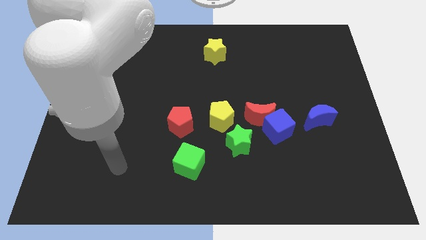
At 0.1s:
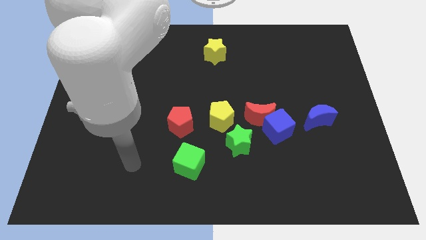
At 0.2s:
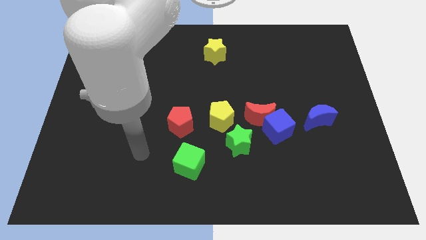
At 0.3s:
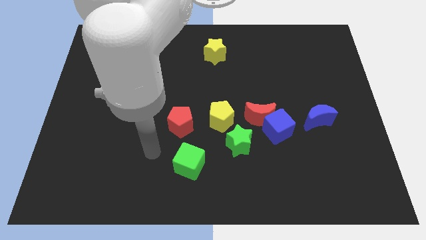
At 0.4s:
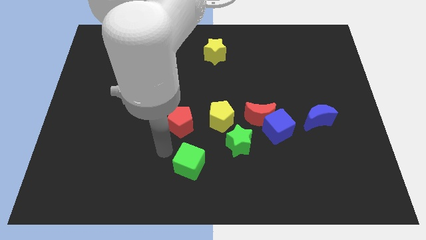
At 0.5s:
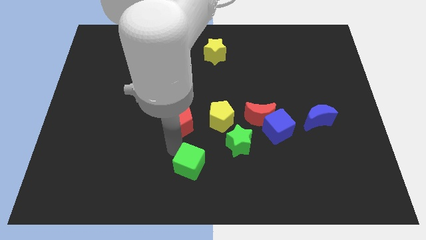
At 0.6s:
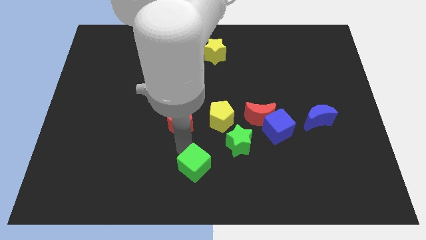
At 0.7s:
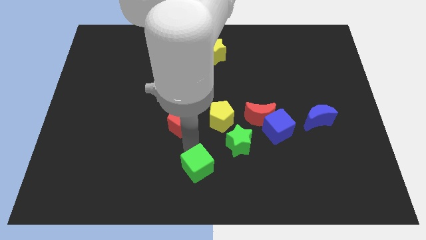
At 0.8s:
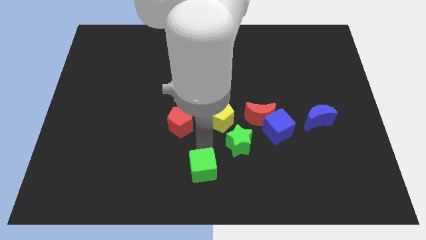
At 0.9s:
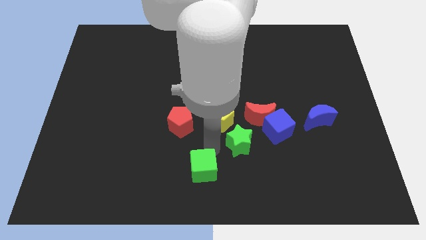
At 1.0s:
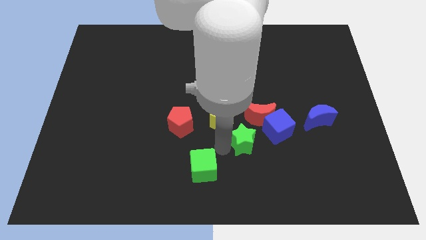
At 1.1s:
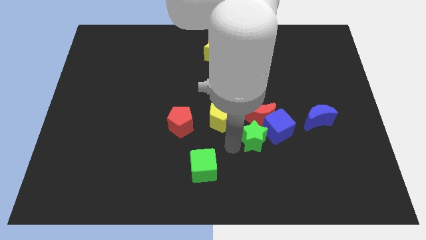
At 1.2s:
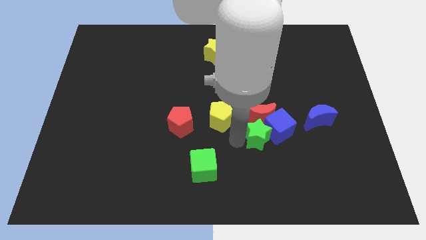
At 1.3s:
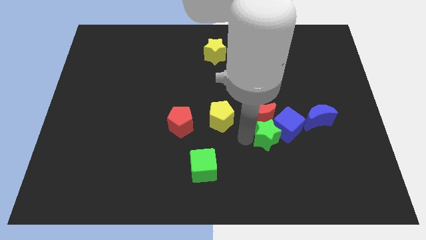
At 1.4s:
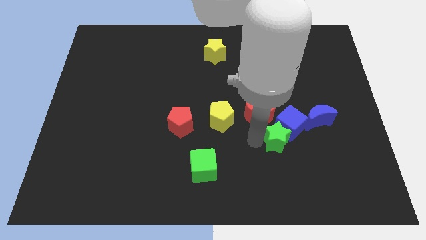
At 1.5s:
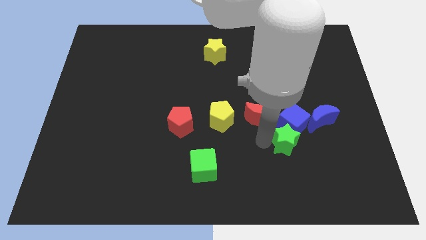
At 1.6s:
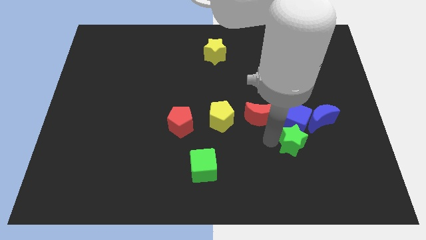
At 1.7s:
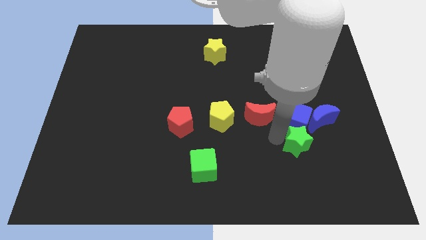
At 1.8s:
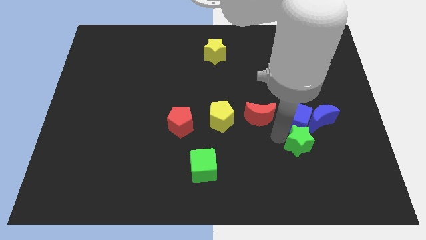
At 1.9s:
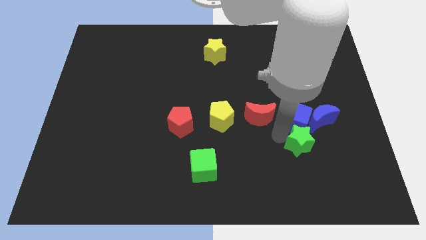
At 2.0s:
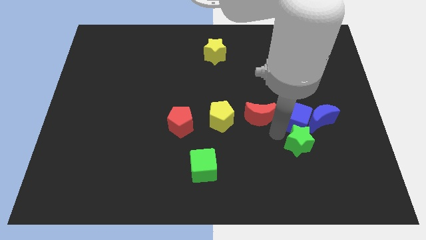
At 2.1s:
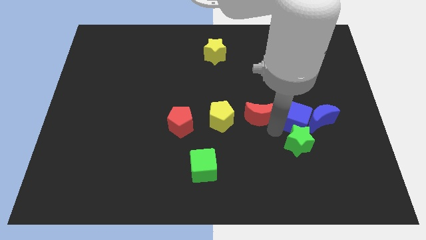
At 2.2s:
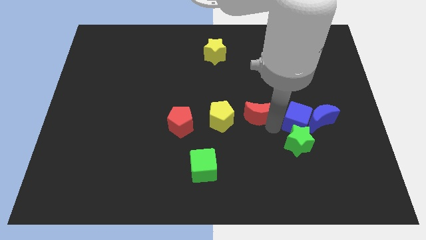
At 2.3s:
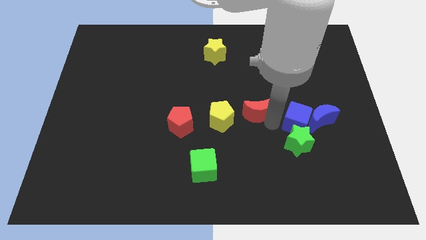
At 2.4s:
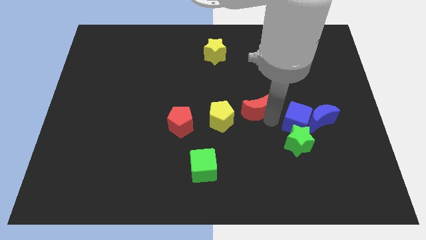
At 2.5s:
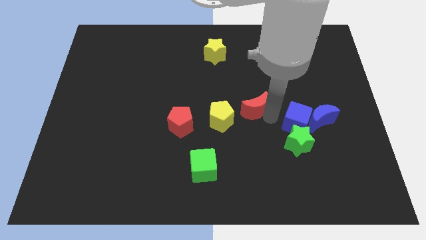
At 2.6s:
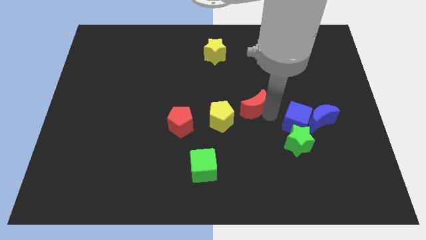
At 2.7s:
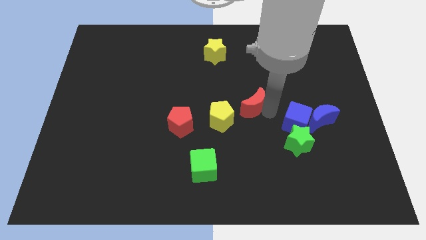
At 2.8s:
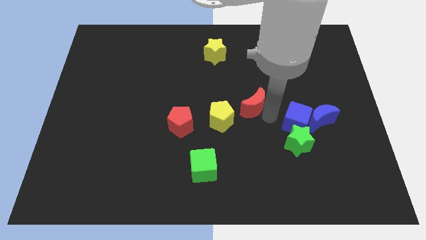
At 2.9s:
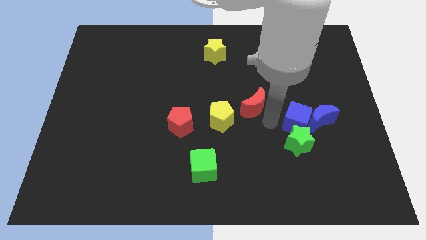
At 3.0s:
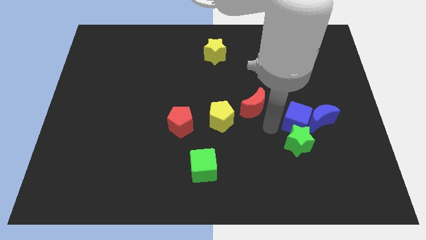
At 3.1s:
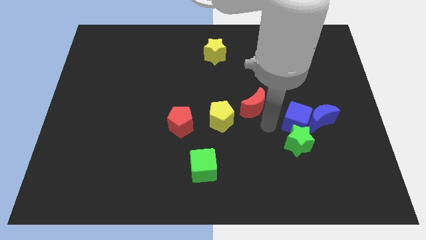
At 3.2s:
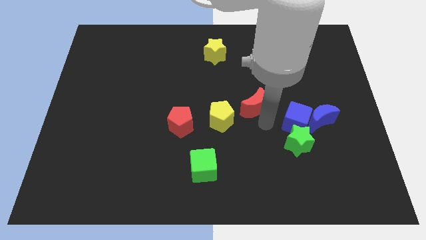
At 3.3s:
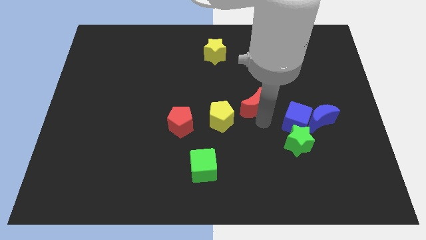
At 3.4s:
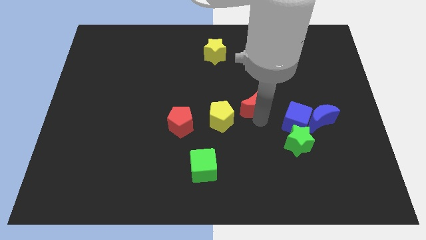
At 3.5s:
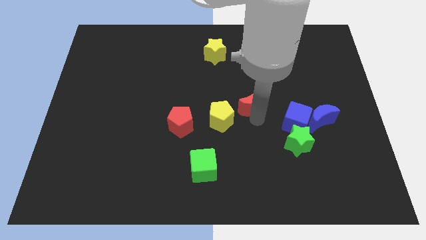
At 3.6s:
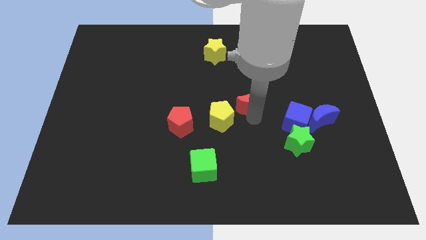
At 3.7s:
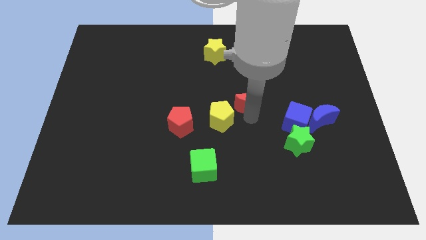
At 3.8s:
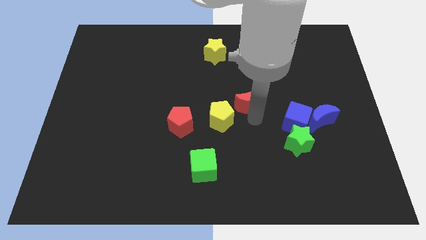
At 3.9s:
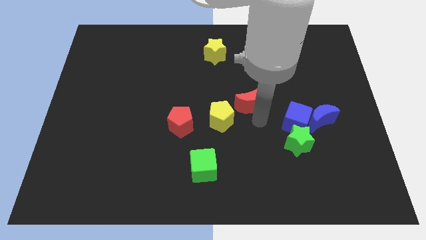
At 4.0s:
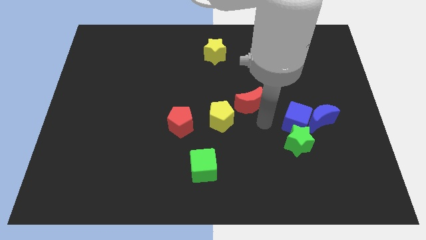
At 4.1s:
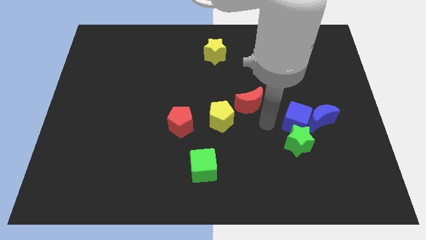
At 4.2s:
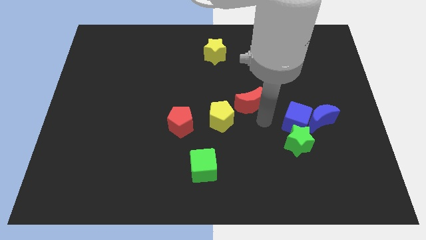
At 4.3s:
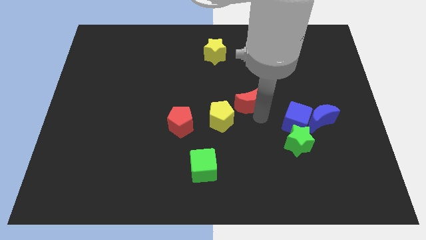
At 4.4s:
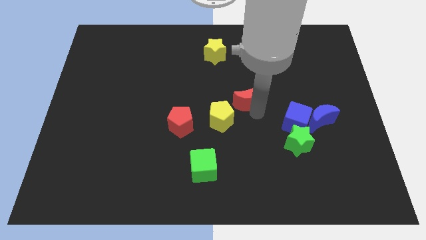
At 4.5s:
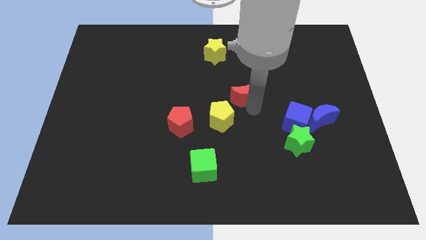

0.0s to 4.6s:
separate the red moon from the blue cube, yellow pentagon, and green star

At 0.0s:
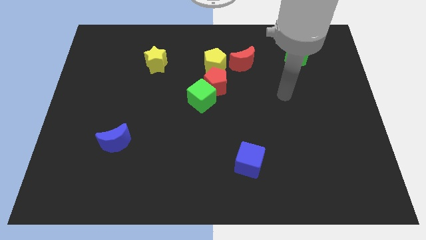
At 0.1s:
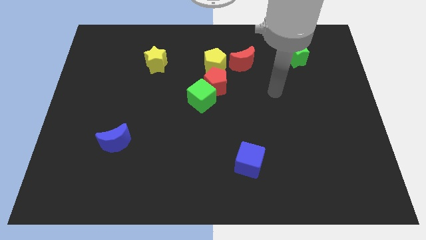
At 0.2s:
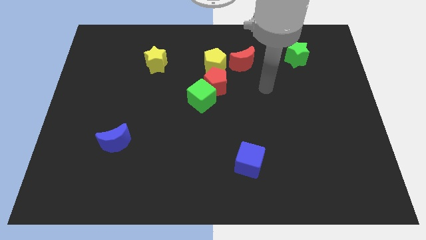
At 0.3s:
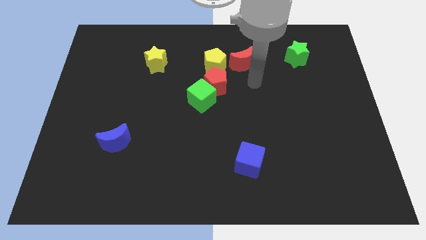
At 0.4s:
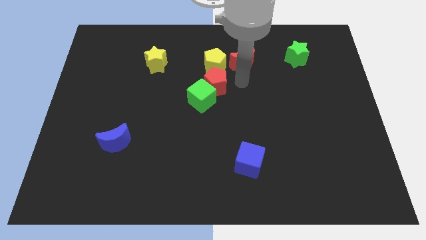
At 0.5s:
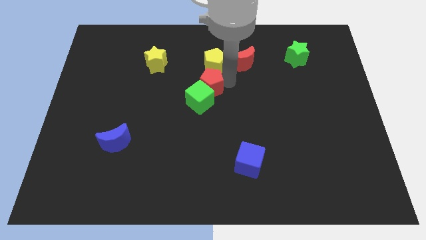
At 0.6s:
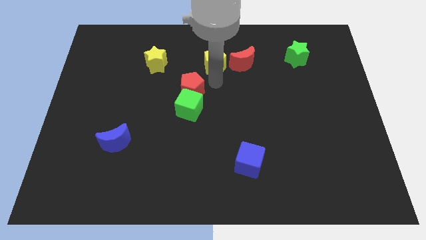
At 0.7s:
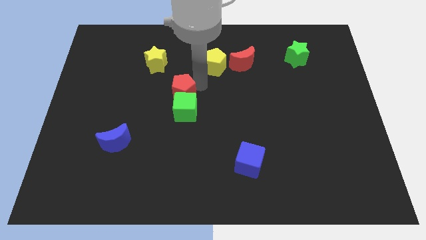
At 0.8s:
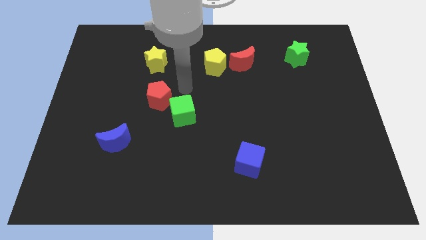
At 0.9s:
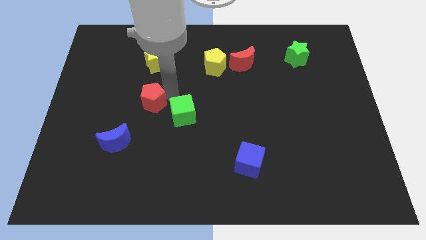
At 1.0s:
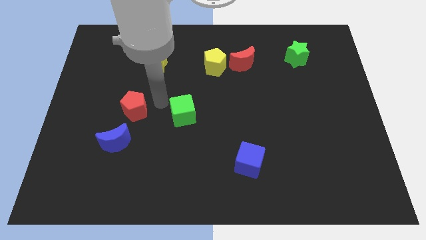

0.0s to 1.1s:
separate the green cube from the red pentagon

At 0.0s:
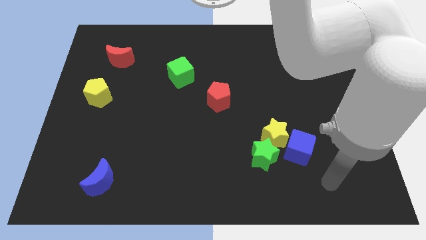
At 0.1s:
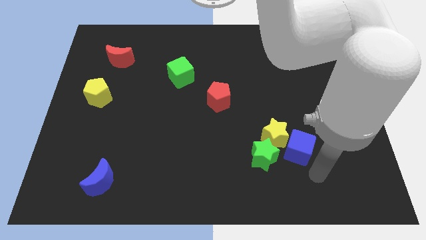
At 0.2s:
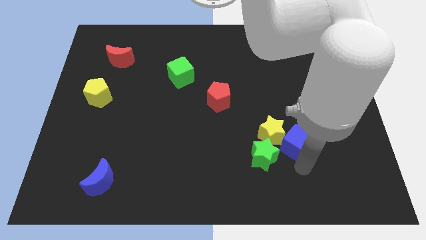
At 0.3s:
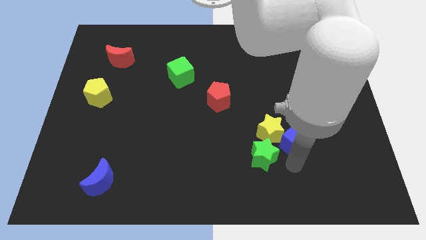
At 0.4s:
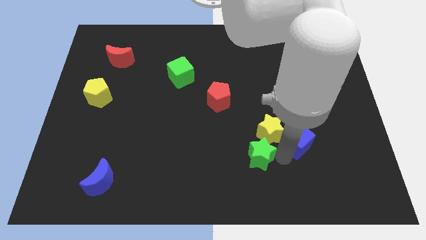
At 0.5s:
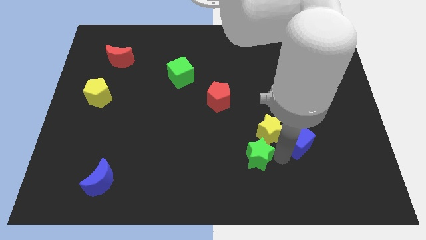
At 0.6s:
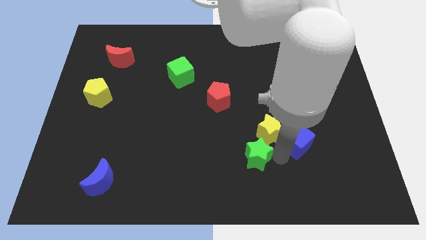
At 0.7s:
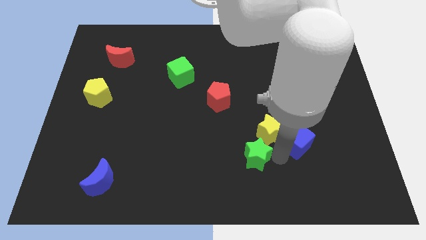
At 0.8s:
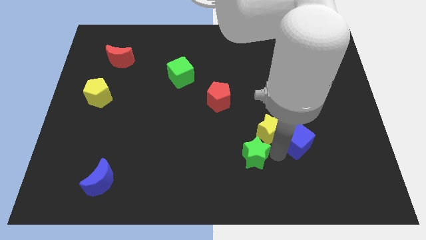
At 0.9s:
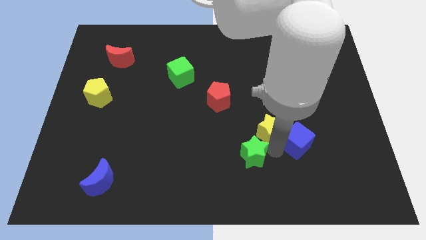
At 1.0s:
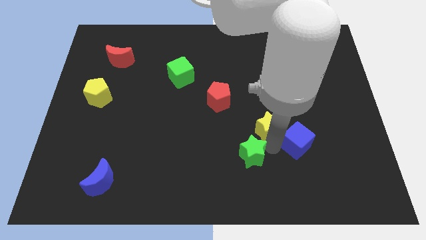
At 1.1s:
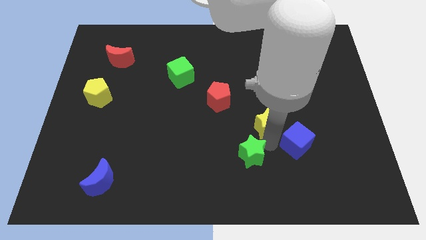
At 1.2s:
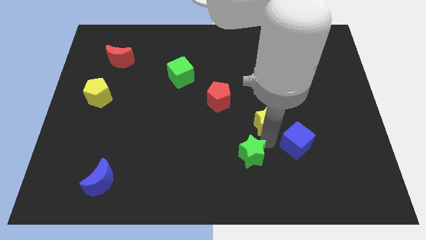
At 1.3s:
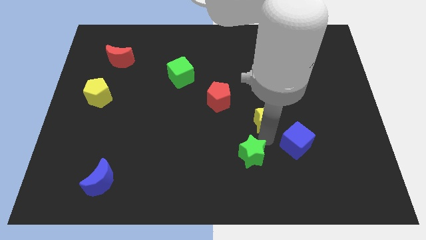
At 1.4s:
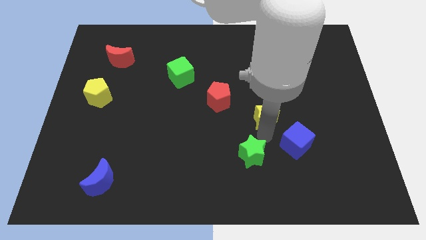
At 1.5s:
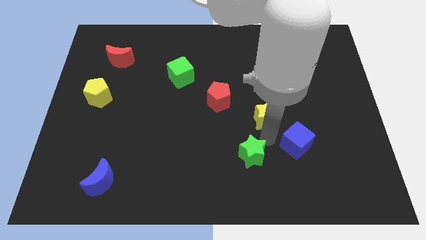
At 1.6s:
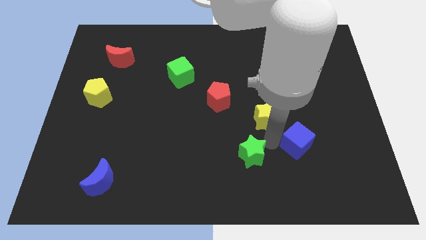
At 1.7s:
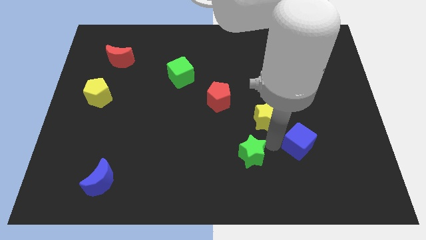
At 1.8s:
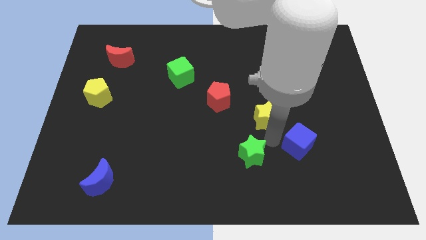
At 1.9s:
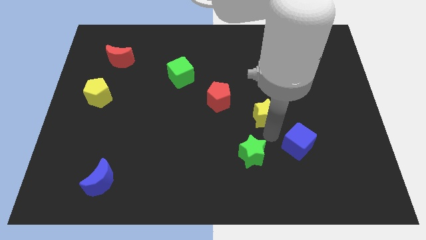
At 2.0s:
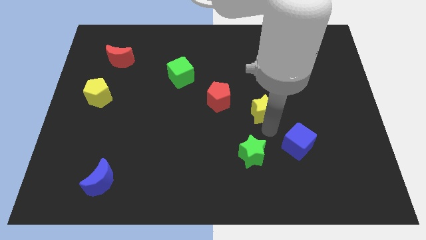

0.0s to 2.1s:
move the yellow star away from the blue cube and green star

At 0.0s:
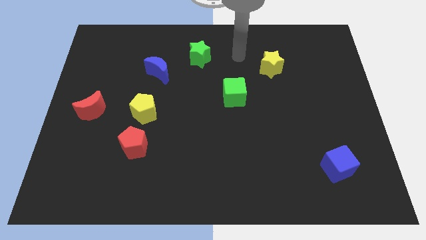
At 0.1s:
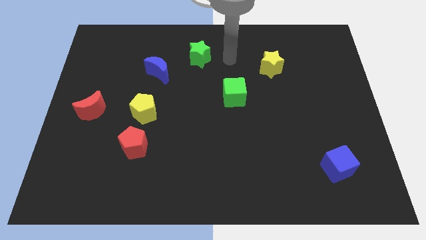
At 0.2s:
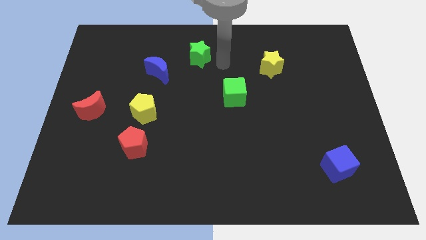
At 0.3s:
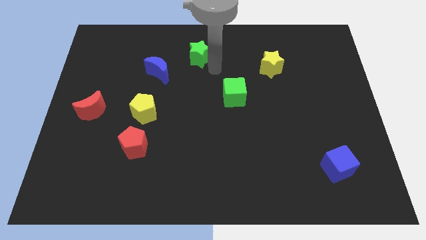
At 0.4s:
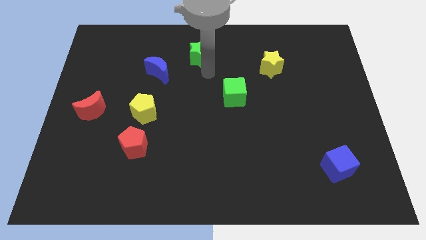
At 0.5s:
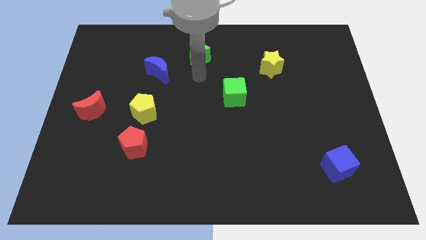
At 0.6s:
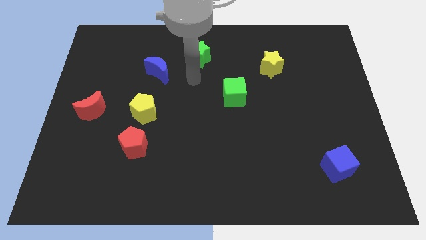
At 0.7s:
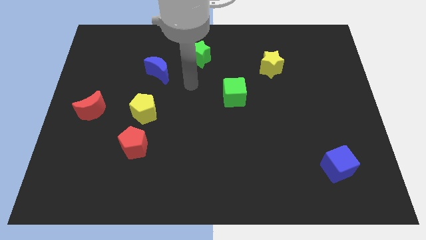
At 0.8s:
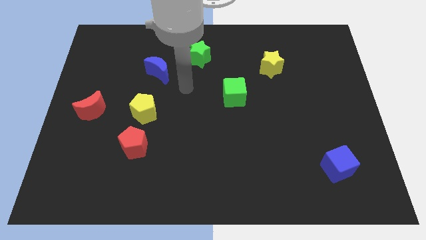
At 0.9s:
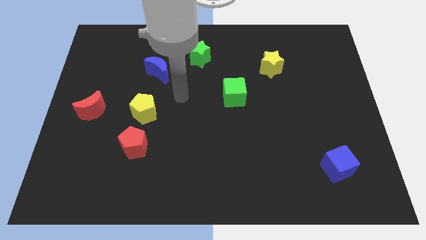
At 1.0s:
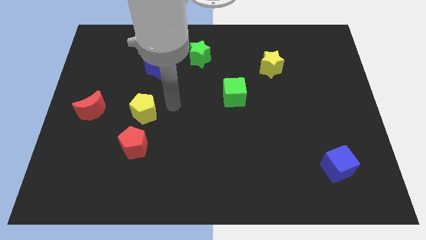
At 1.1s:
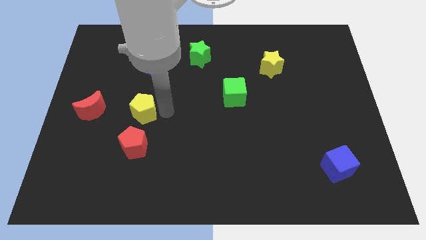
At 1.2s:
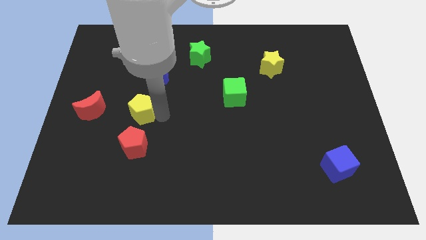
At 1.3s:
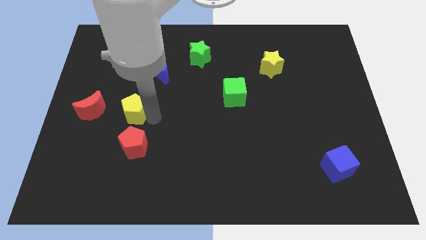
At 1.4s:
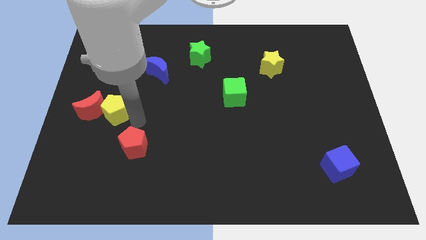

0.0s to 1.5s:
separate the red pentagon from the yellow pentagon

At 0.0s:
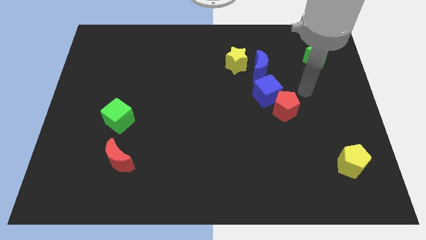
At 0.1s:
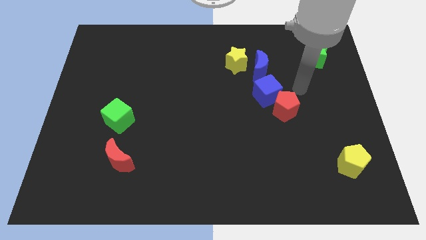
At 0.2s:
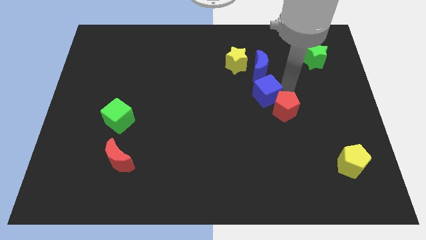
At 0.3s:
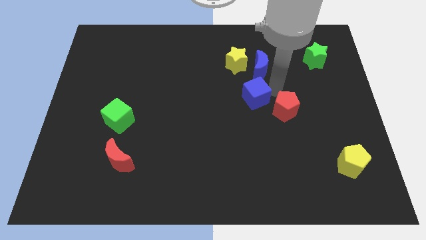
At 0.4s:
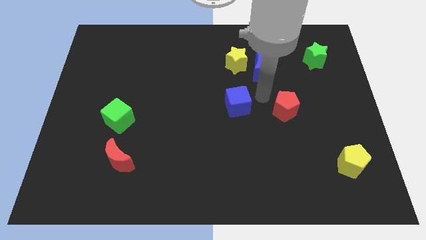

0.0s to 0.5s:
pull the red pentagon apart from the blue cube
